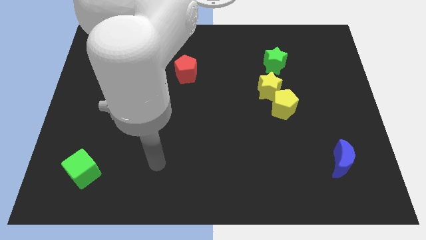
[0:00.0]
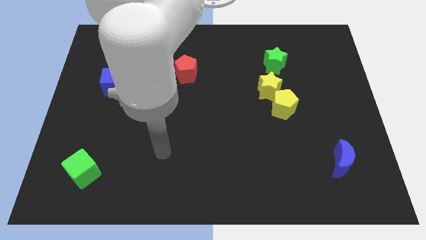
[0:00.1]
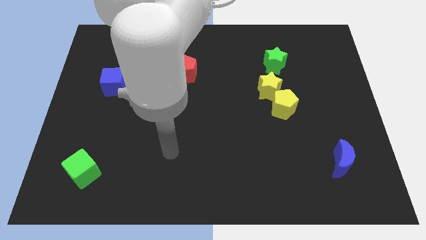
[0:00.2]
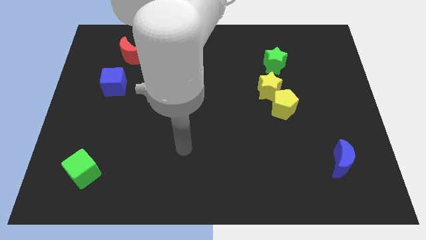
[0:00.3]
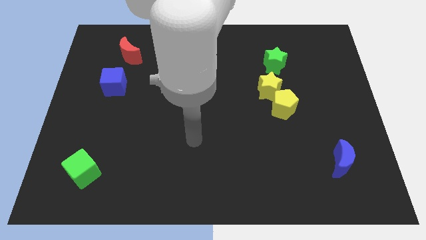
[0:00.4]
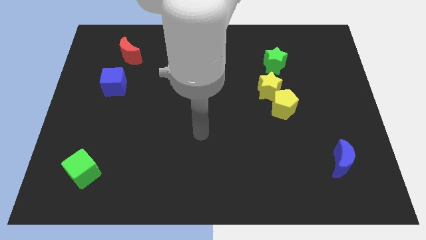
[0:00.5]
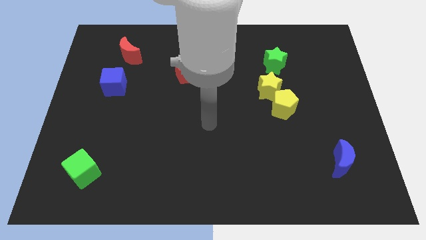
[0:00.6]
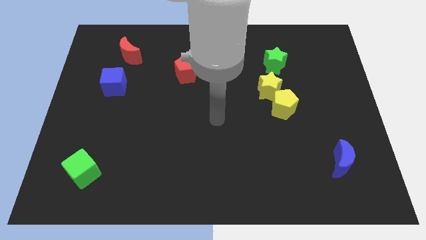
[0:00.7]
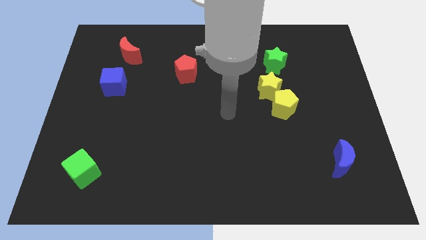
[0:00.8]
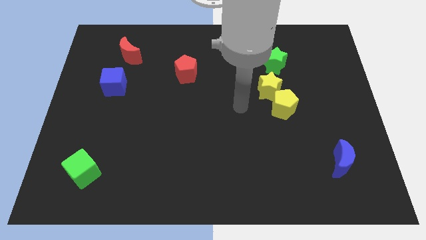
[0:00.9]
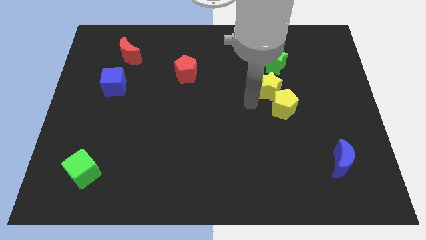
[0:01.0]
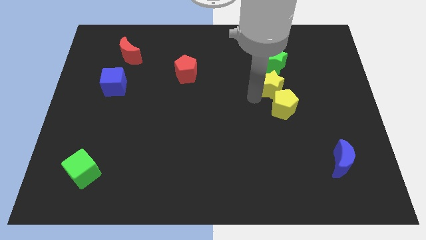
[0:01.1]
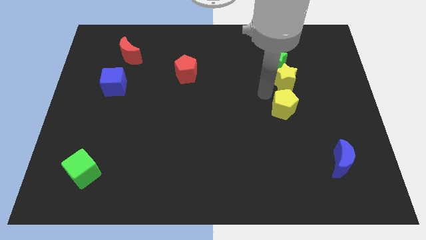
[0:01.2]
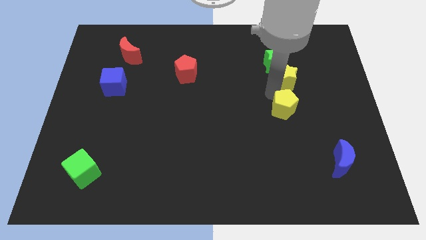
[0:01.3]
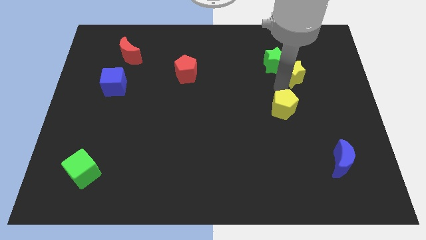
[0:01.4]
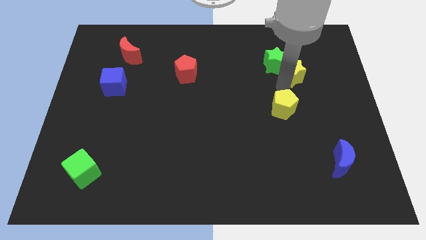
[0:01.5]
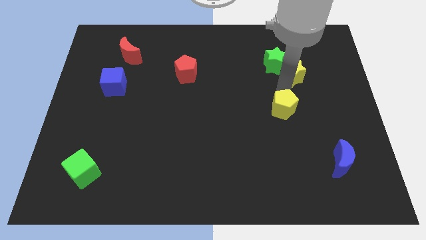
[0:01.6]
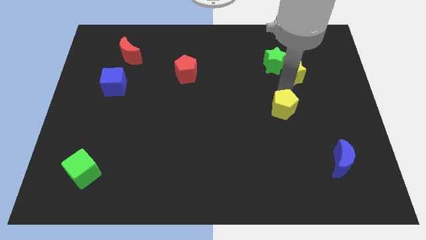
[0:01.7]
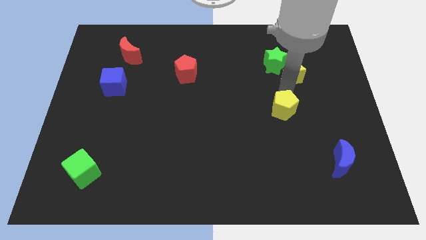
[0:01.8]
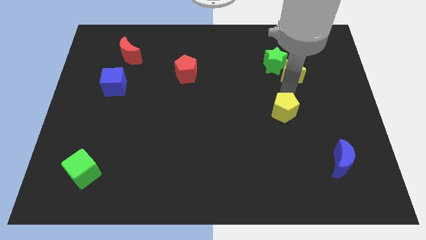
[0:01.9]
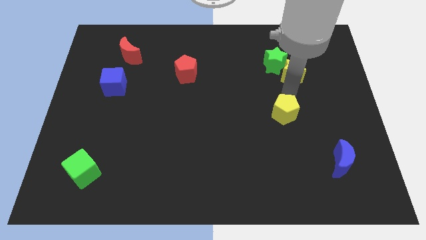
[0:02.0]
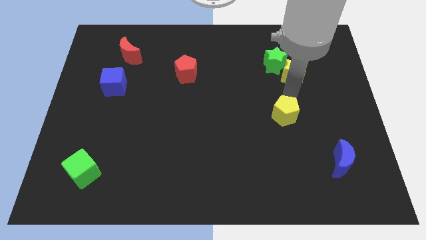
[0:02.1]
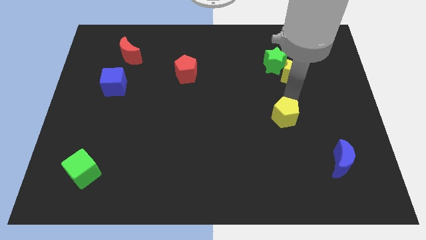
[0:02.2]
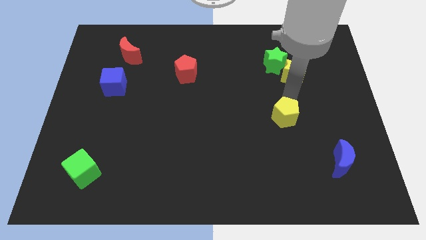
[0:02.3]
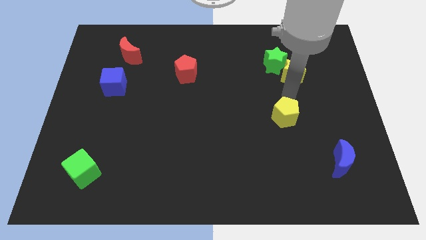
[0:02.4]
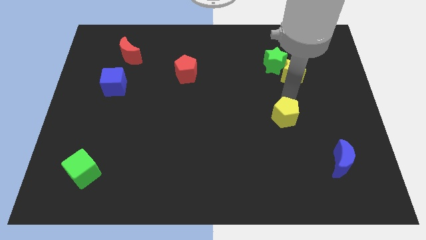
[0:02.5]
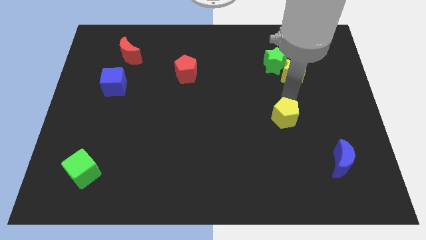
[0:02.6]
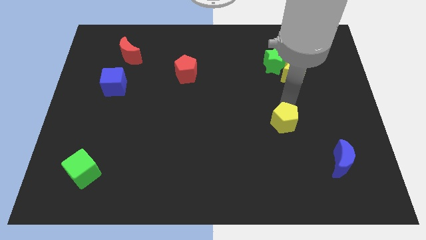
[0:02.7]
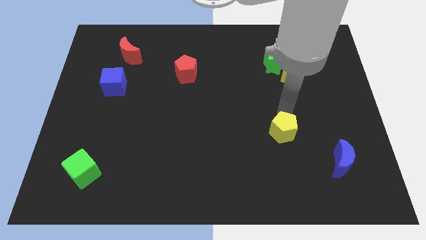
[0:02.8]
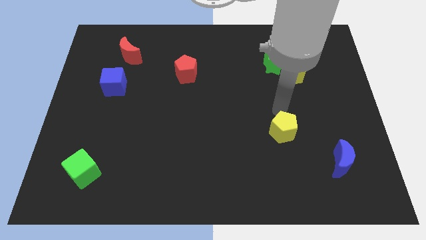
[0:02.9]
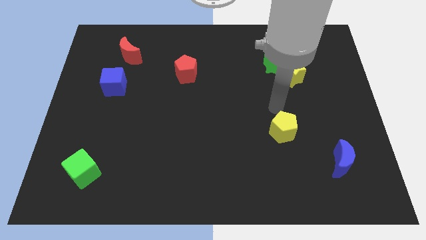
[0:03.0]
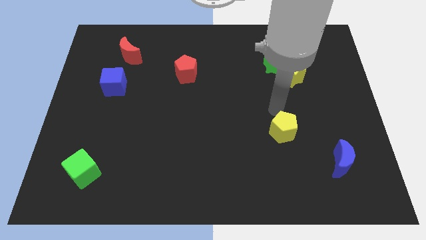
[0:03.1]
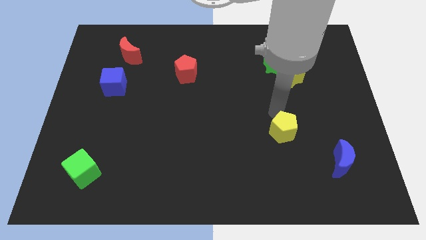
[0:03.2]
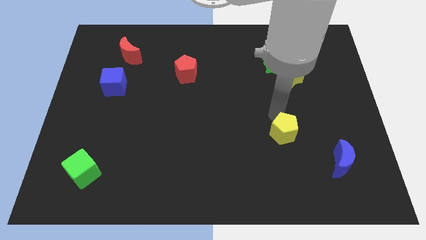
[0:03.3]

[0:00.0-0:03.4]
push the yellow pentagon somewhat downwards

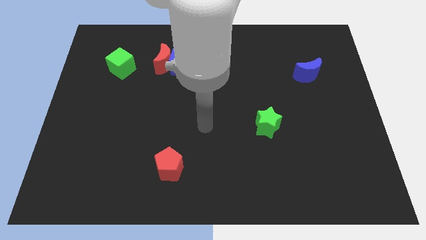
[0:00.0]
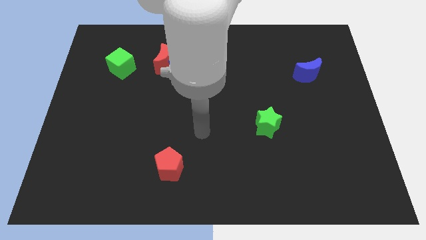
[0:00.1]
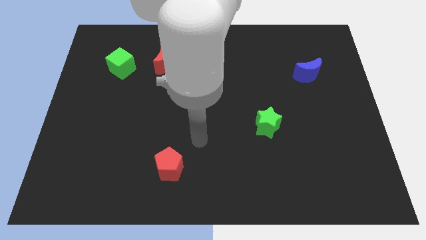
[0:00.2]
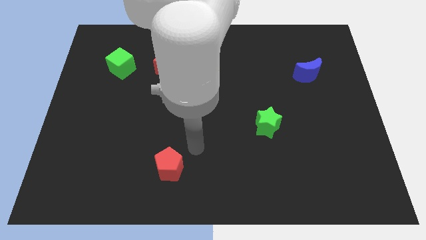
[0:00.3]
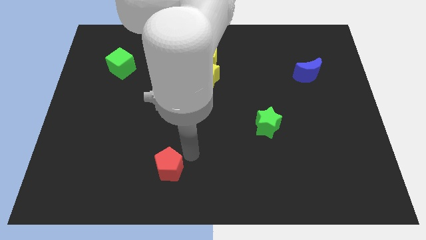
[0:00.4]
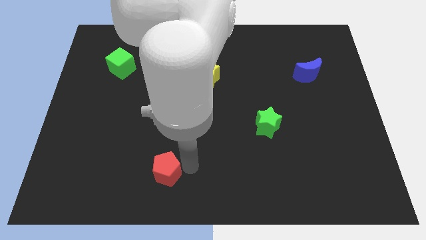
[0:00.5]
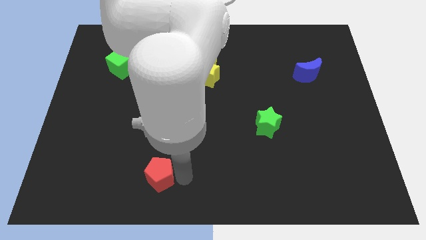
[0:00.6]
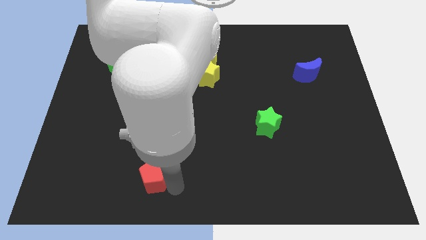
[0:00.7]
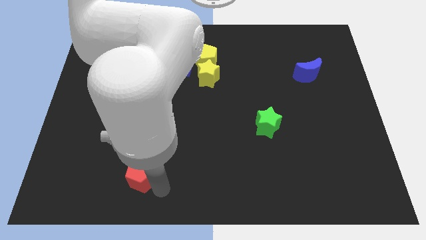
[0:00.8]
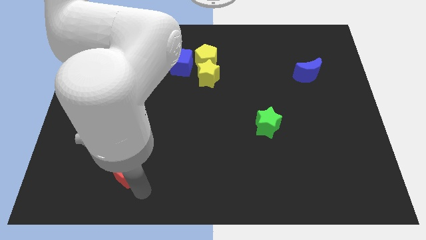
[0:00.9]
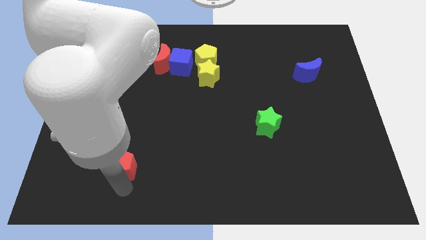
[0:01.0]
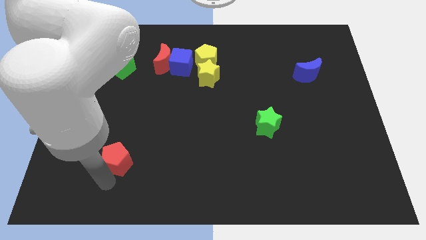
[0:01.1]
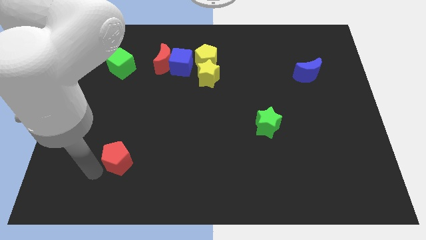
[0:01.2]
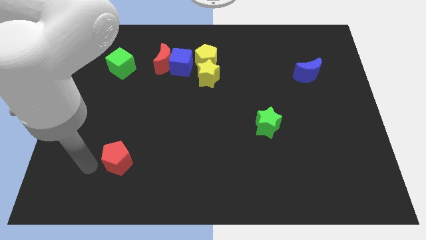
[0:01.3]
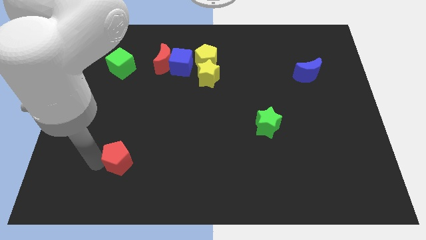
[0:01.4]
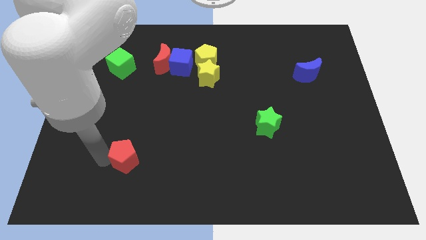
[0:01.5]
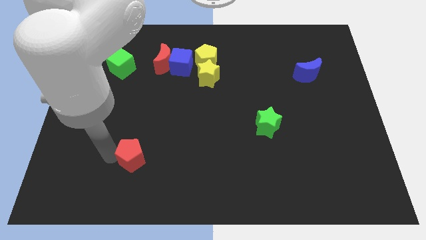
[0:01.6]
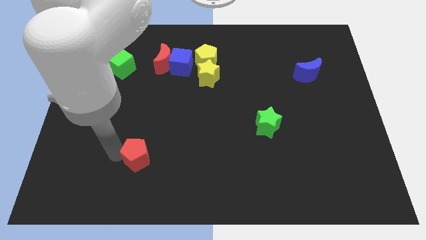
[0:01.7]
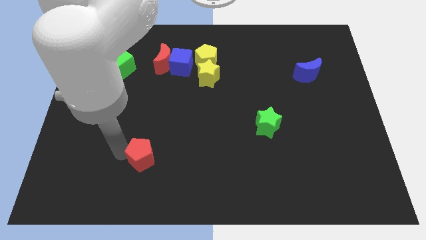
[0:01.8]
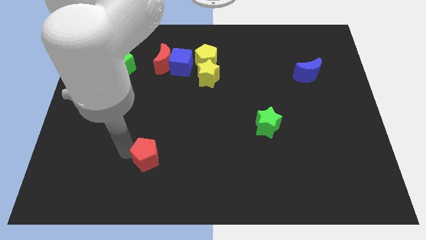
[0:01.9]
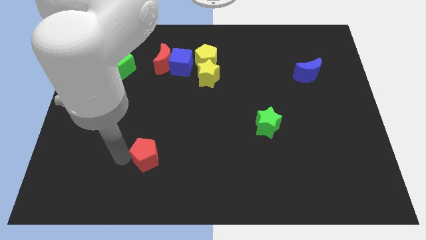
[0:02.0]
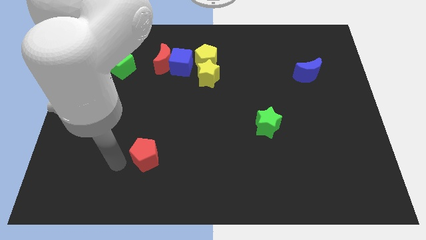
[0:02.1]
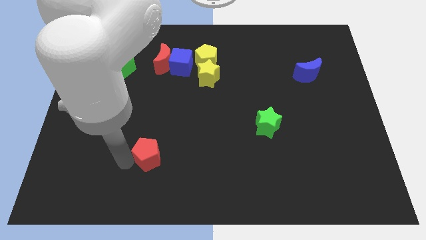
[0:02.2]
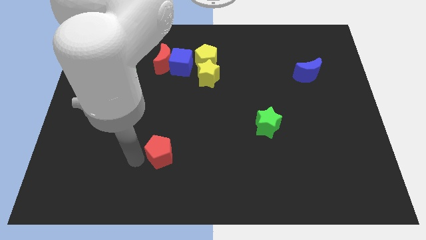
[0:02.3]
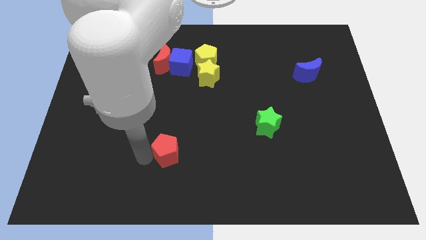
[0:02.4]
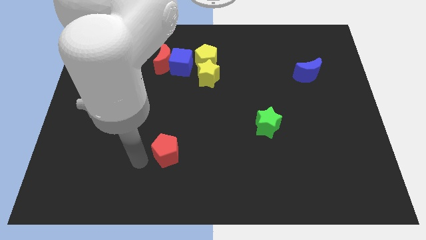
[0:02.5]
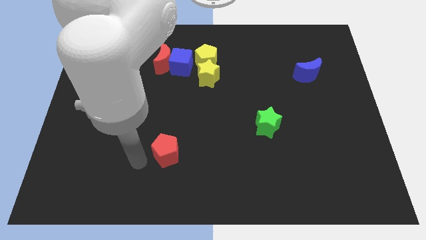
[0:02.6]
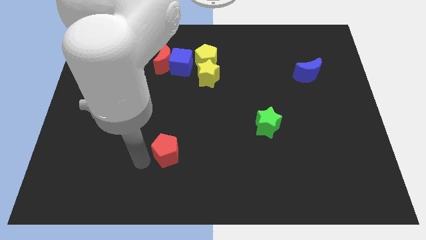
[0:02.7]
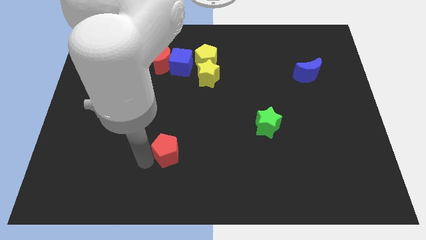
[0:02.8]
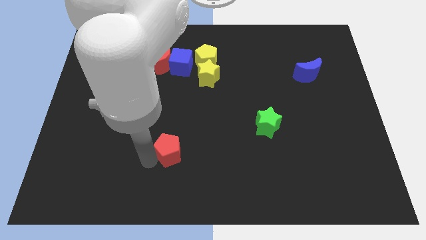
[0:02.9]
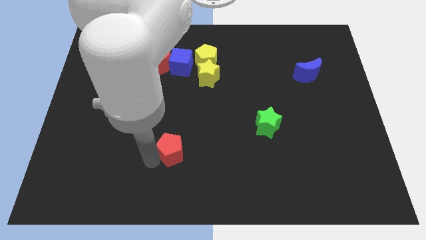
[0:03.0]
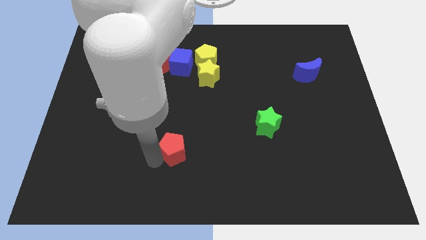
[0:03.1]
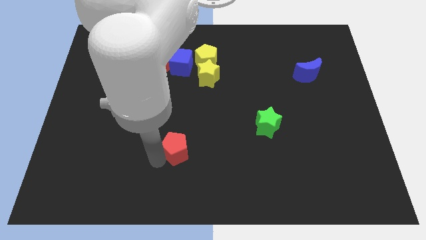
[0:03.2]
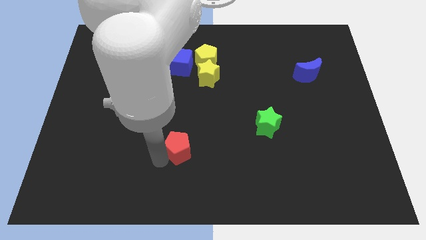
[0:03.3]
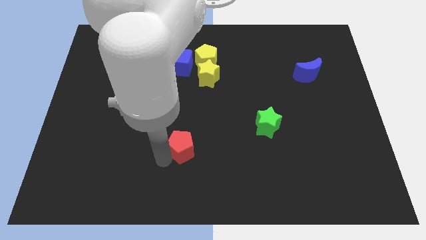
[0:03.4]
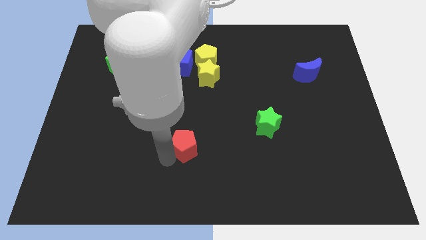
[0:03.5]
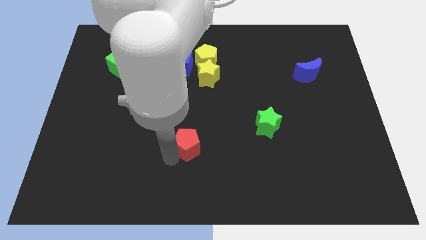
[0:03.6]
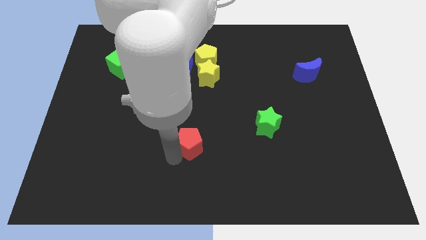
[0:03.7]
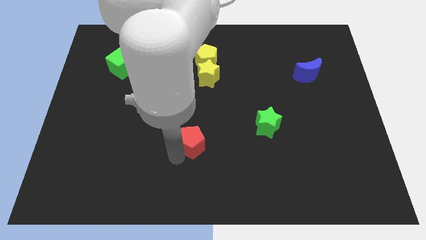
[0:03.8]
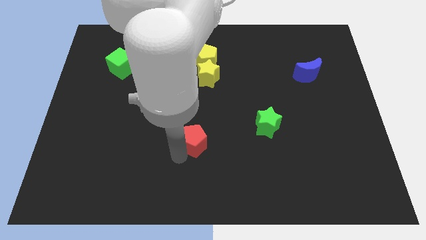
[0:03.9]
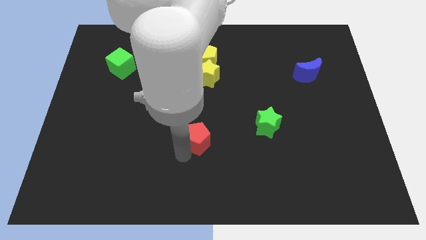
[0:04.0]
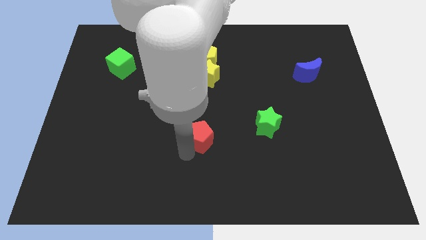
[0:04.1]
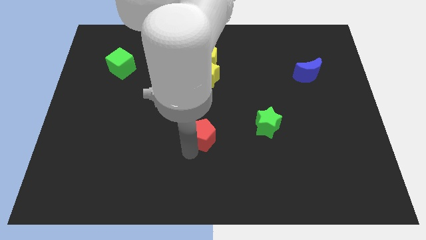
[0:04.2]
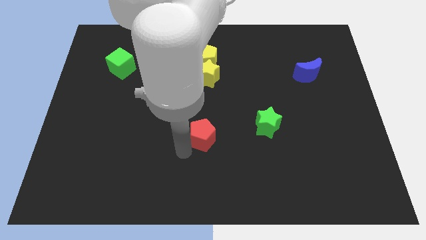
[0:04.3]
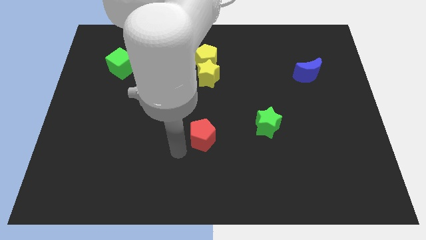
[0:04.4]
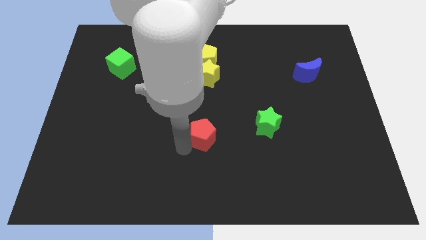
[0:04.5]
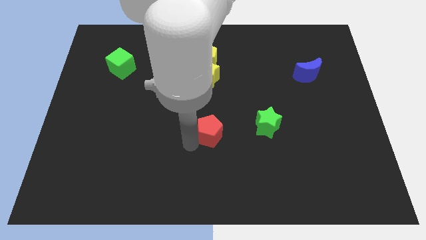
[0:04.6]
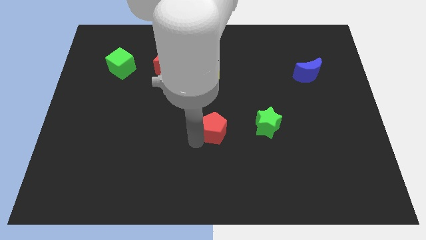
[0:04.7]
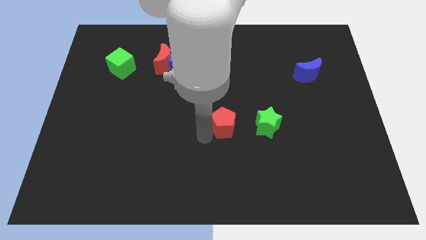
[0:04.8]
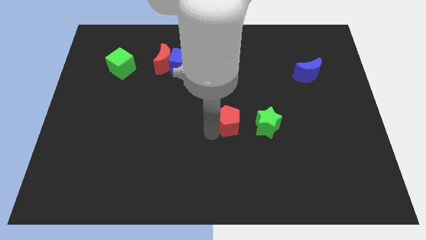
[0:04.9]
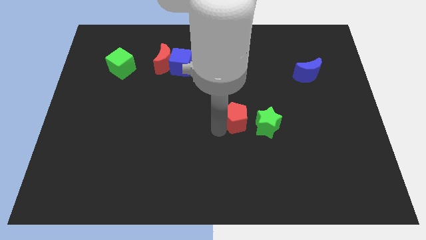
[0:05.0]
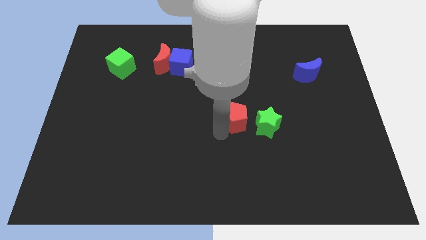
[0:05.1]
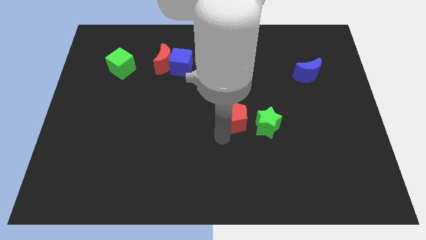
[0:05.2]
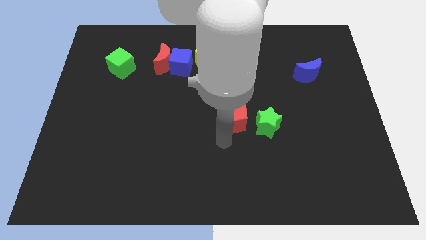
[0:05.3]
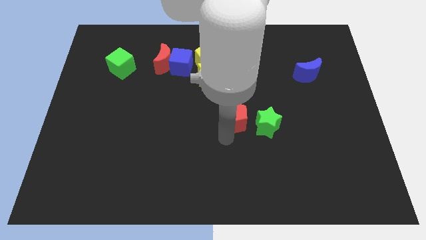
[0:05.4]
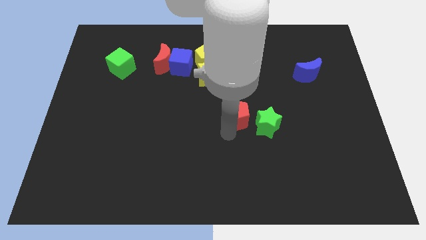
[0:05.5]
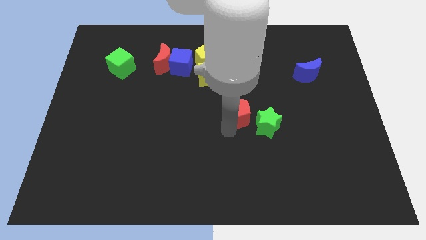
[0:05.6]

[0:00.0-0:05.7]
slide the red pentagon diagonally upwards and right
